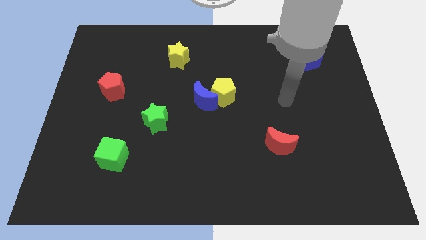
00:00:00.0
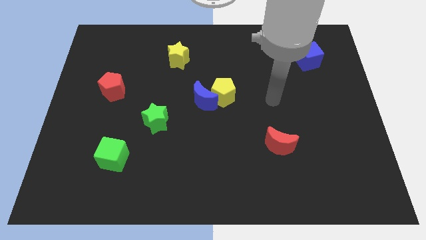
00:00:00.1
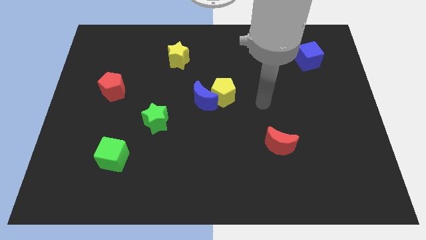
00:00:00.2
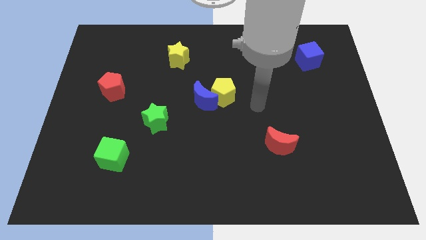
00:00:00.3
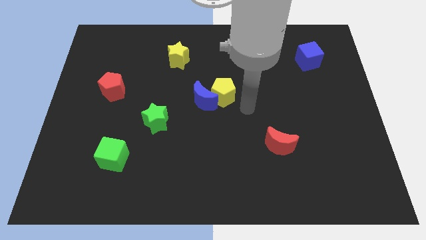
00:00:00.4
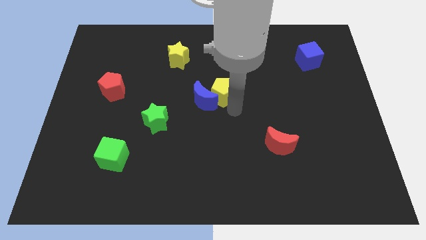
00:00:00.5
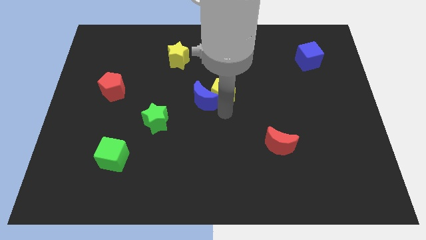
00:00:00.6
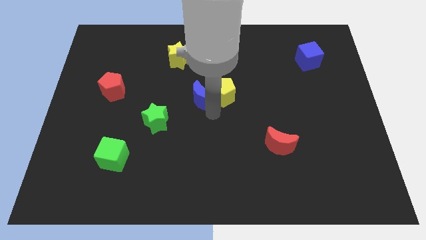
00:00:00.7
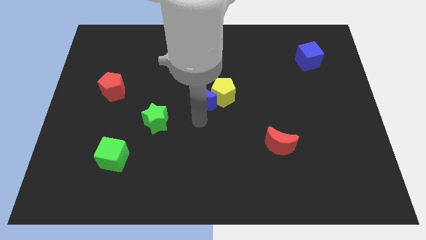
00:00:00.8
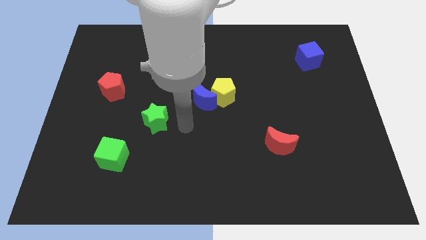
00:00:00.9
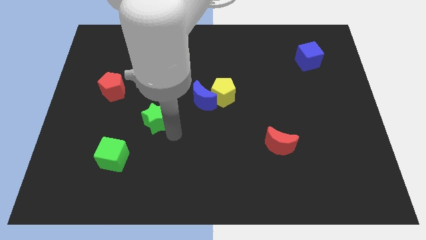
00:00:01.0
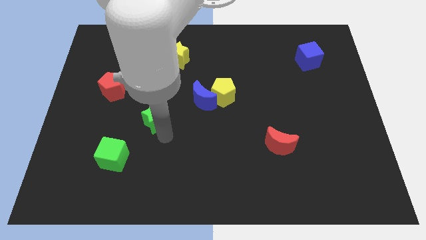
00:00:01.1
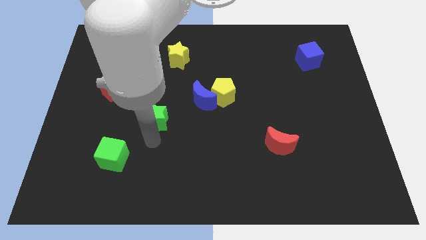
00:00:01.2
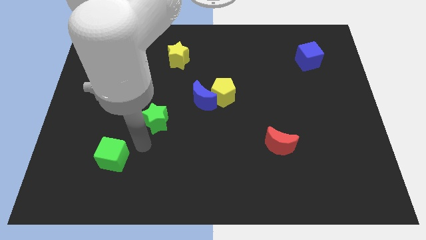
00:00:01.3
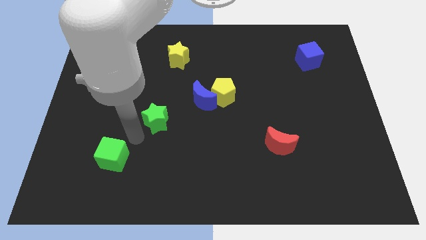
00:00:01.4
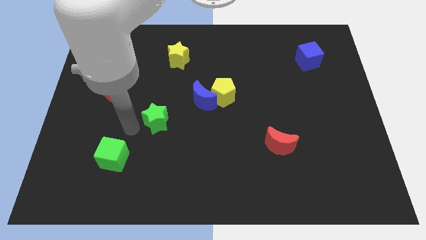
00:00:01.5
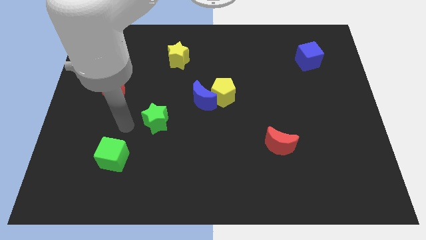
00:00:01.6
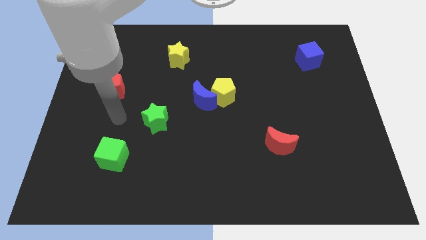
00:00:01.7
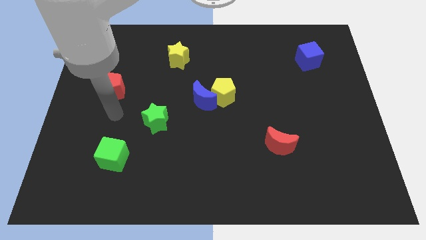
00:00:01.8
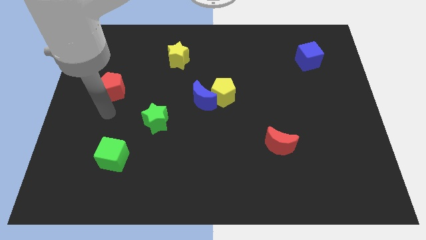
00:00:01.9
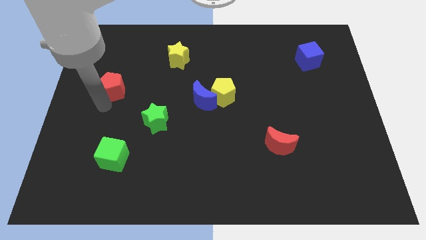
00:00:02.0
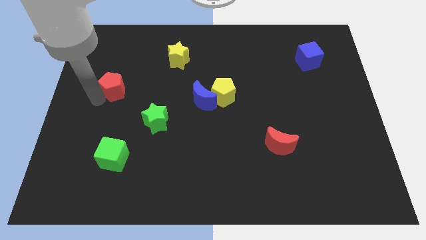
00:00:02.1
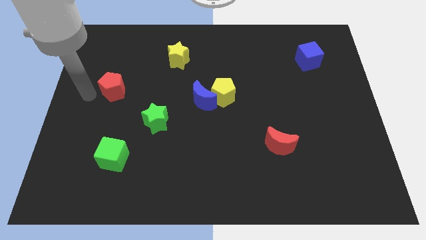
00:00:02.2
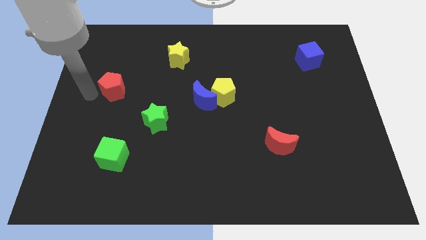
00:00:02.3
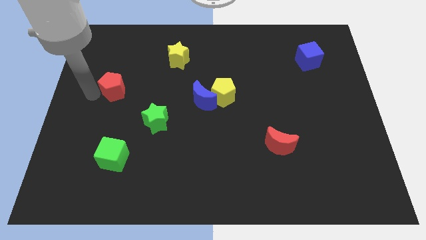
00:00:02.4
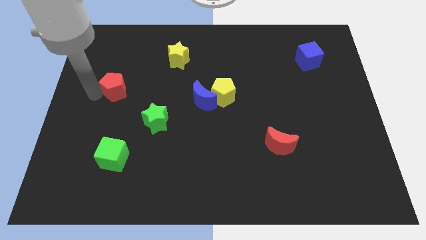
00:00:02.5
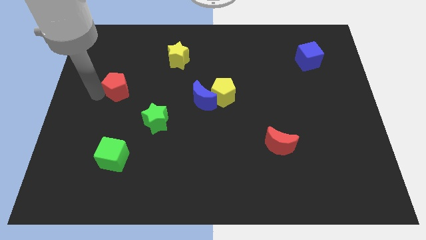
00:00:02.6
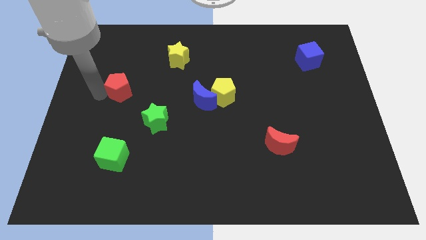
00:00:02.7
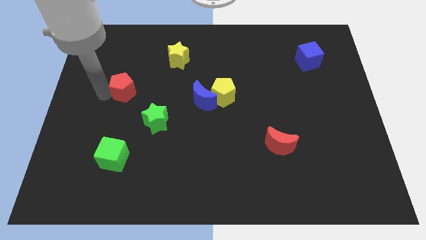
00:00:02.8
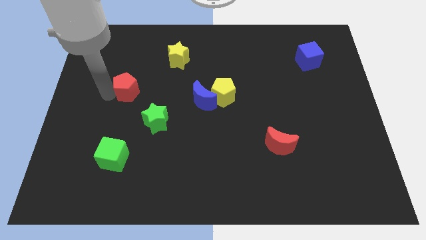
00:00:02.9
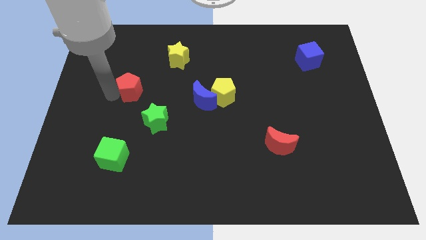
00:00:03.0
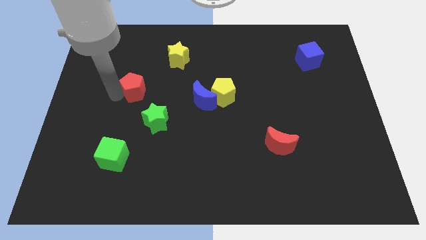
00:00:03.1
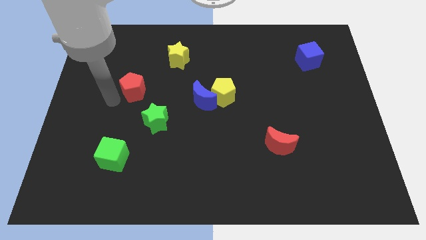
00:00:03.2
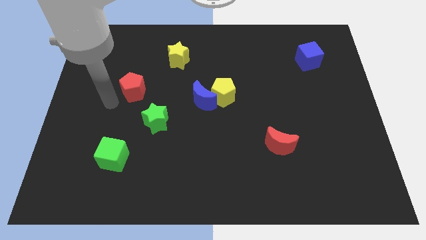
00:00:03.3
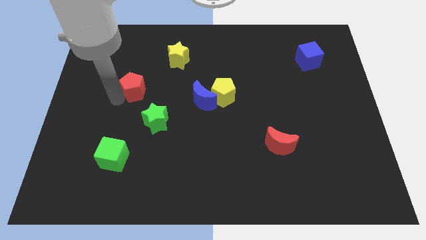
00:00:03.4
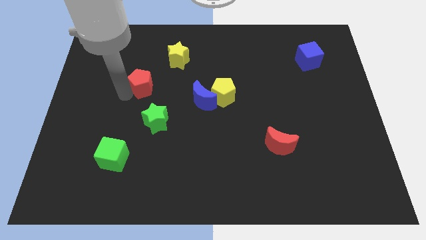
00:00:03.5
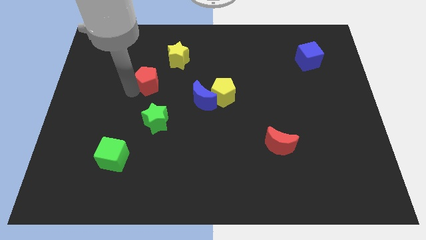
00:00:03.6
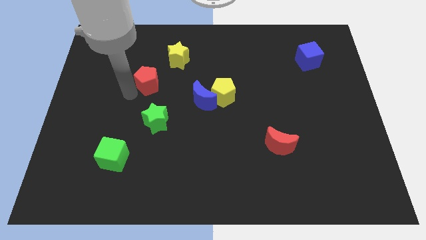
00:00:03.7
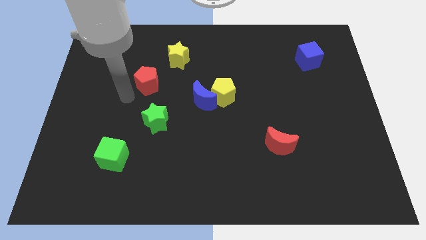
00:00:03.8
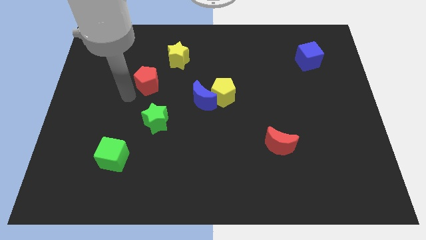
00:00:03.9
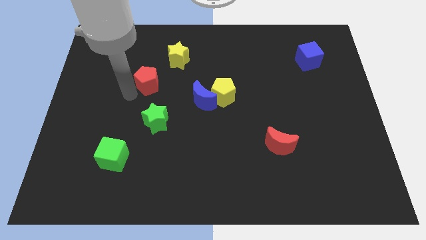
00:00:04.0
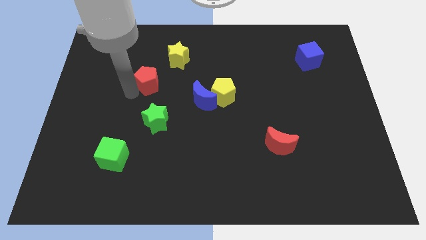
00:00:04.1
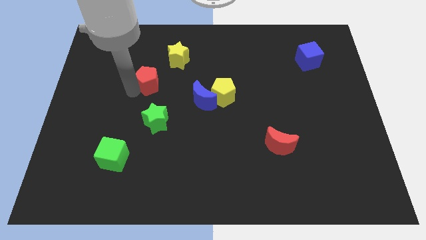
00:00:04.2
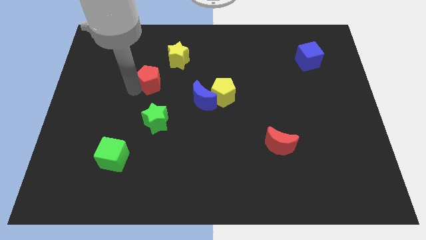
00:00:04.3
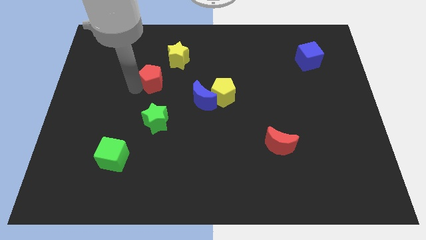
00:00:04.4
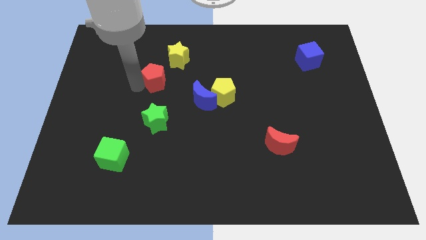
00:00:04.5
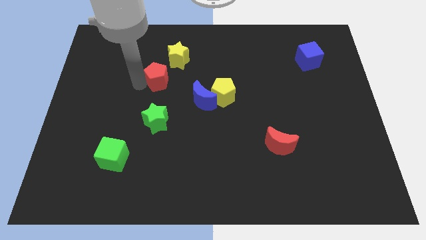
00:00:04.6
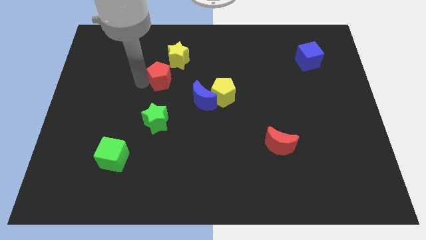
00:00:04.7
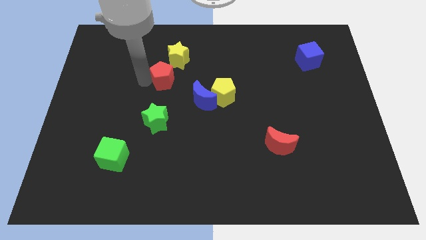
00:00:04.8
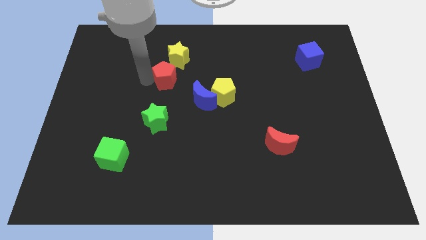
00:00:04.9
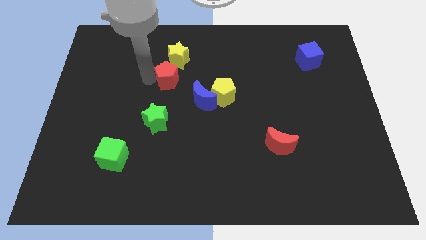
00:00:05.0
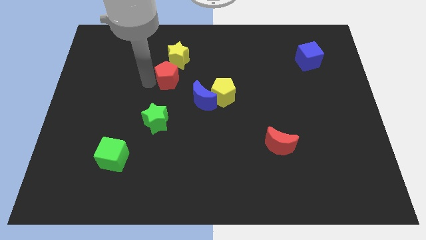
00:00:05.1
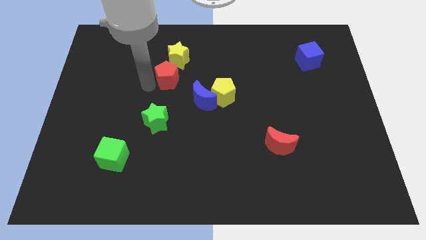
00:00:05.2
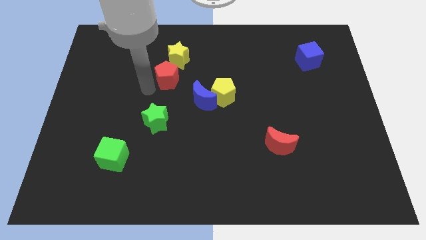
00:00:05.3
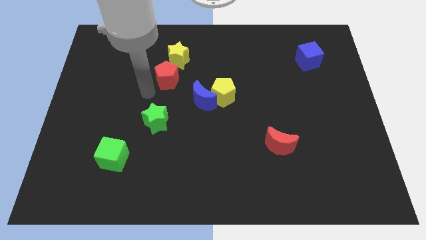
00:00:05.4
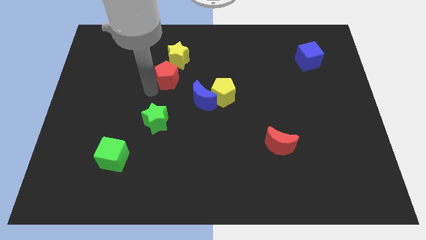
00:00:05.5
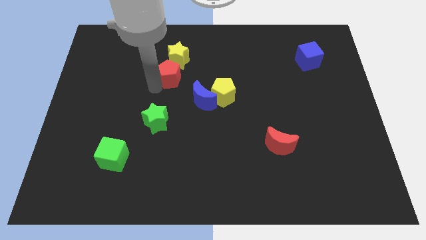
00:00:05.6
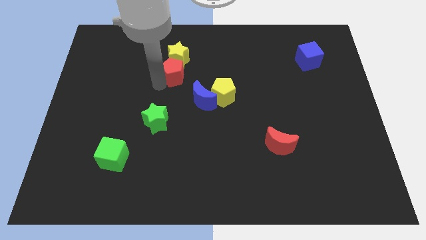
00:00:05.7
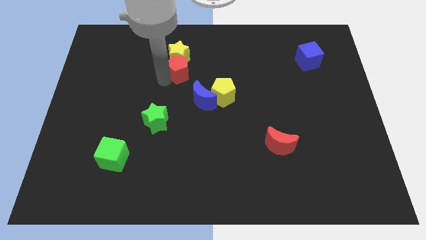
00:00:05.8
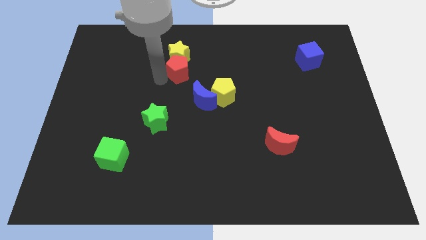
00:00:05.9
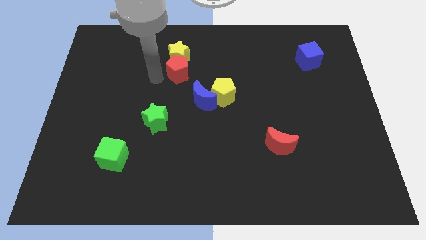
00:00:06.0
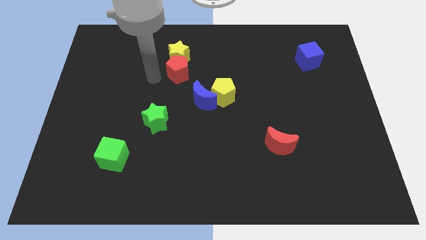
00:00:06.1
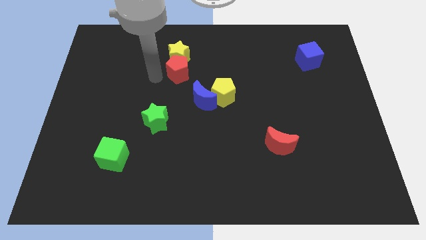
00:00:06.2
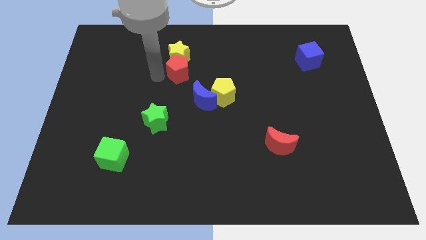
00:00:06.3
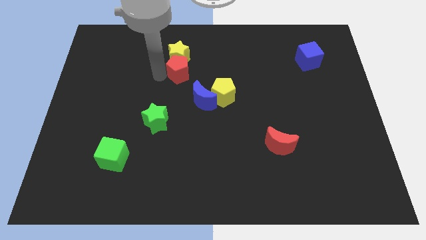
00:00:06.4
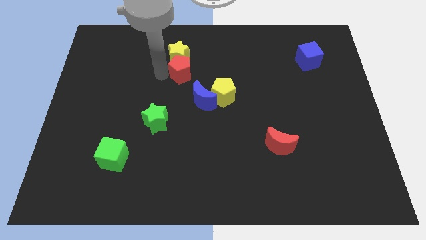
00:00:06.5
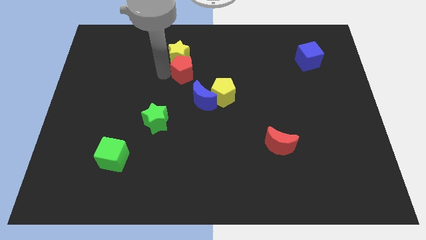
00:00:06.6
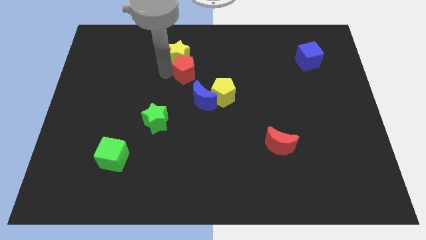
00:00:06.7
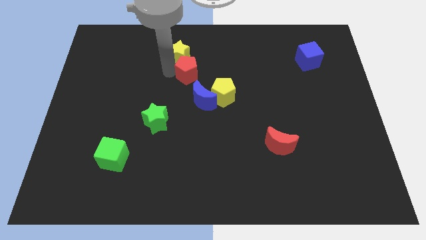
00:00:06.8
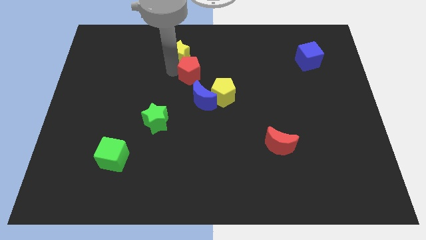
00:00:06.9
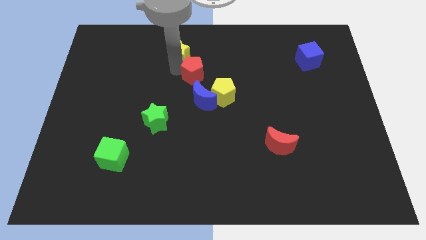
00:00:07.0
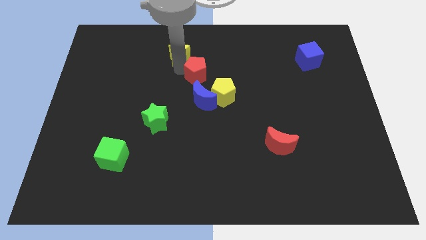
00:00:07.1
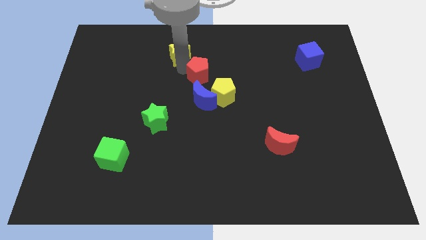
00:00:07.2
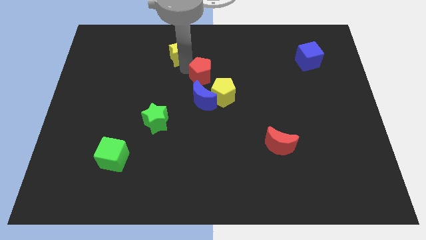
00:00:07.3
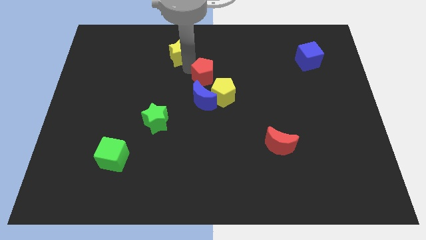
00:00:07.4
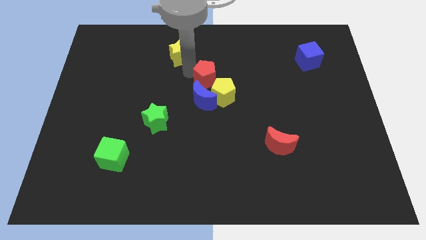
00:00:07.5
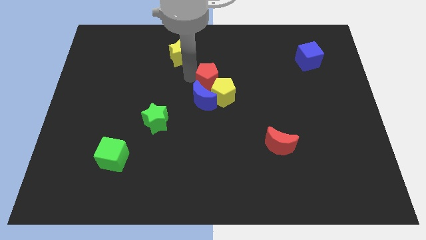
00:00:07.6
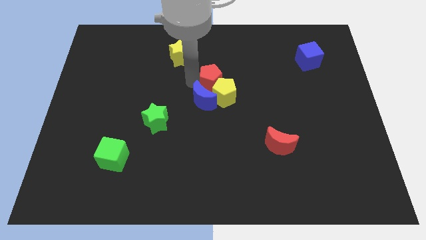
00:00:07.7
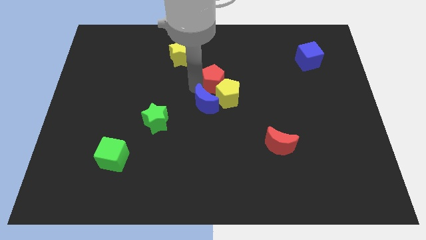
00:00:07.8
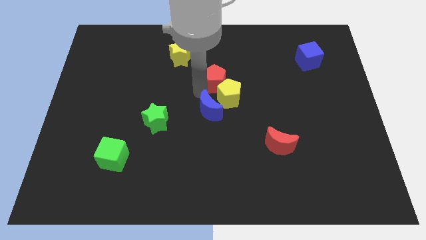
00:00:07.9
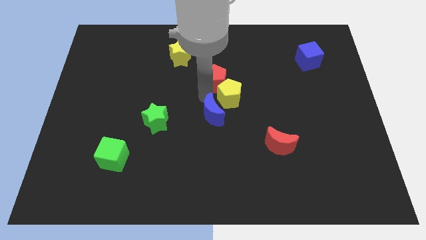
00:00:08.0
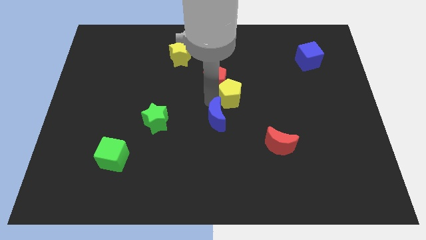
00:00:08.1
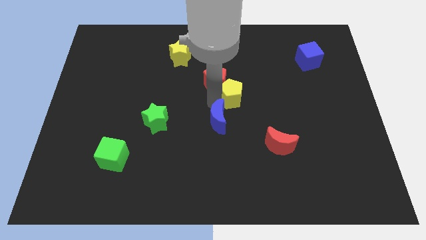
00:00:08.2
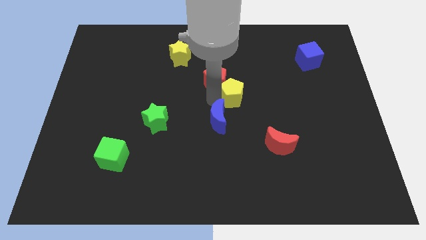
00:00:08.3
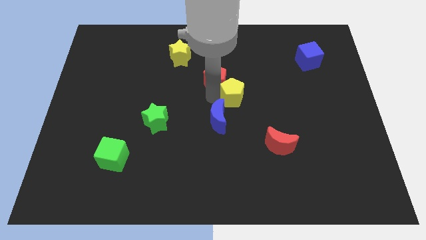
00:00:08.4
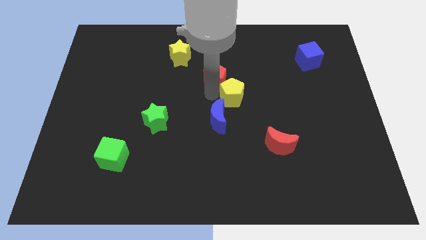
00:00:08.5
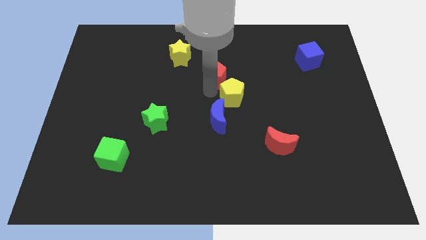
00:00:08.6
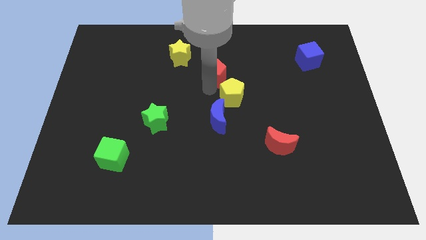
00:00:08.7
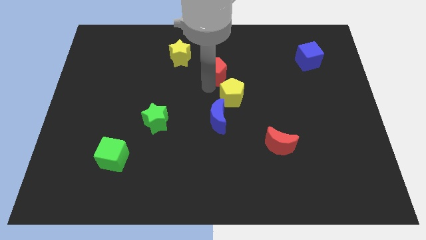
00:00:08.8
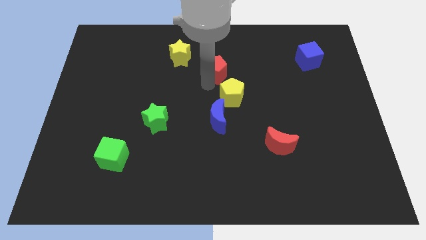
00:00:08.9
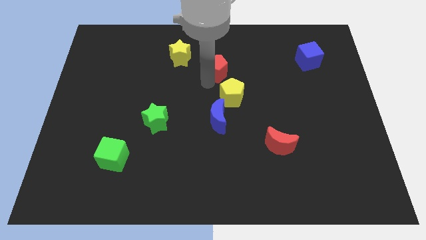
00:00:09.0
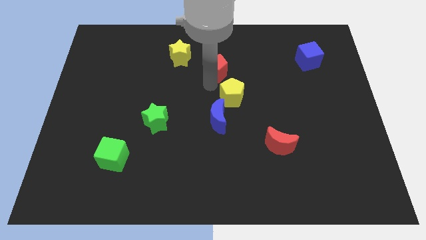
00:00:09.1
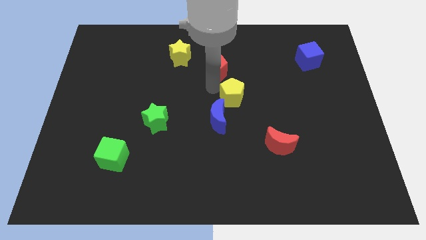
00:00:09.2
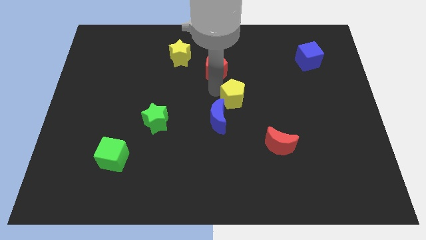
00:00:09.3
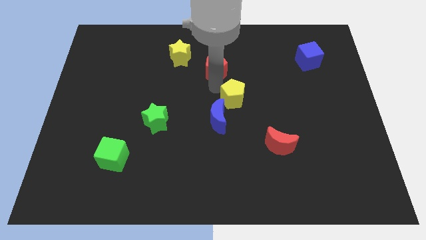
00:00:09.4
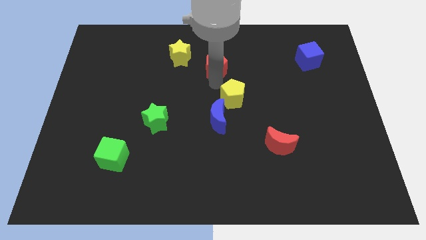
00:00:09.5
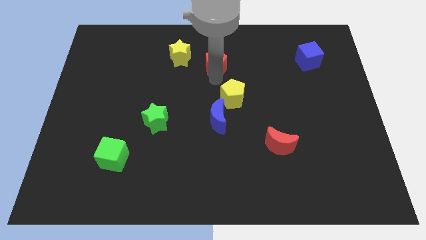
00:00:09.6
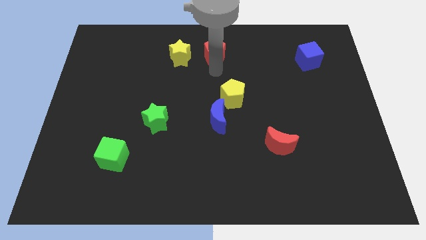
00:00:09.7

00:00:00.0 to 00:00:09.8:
slide the red pentagon to the towards your base
